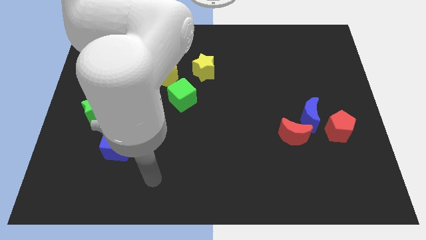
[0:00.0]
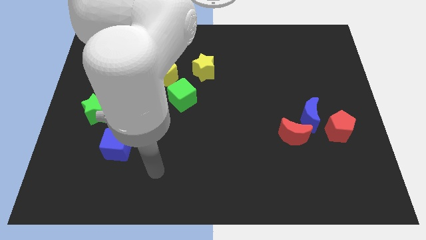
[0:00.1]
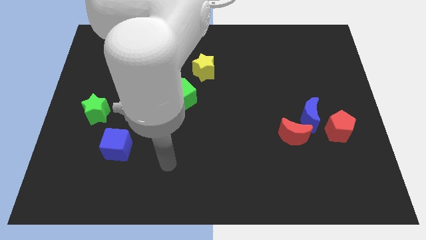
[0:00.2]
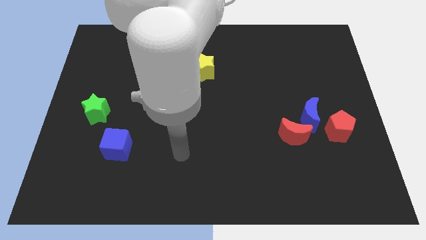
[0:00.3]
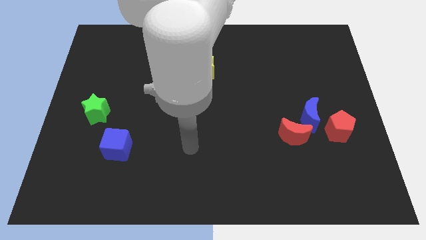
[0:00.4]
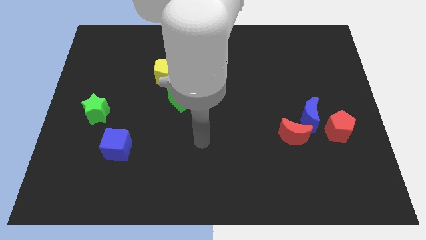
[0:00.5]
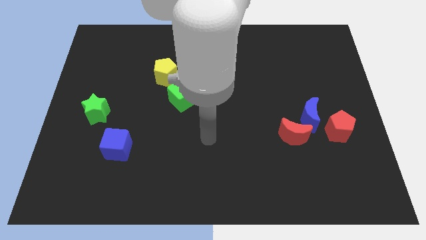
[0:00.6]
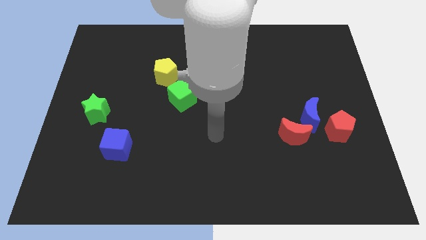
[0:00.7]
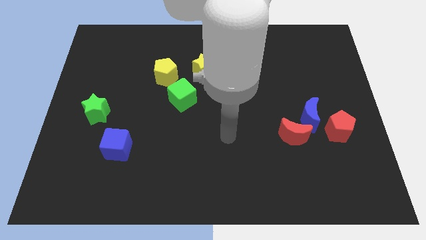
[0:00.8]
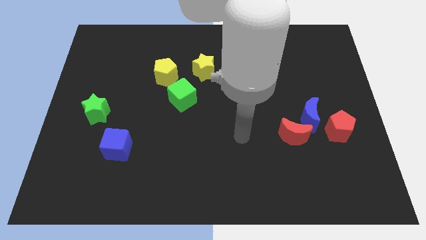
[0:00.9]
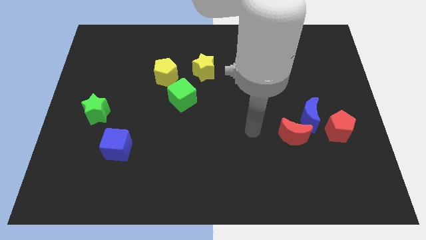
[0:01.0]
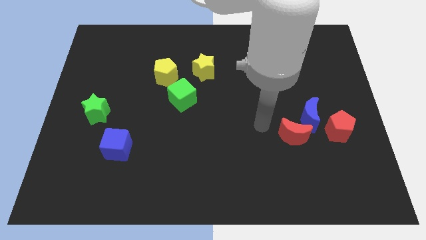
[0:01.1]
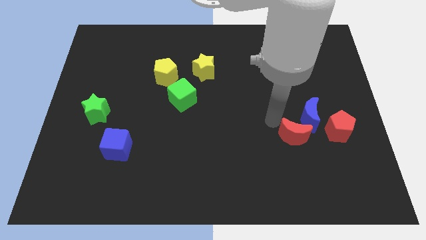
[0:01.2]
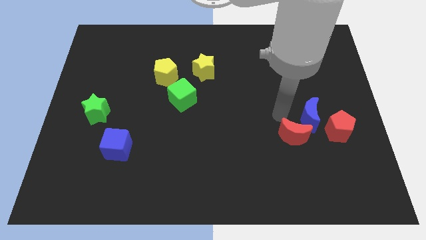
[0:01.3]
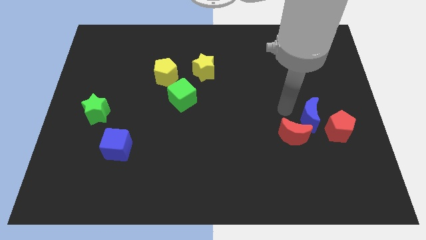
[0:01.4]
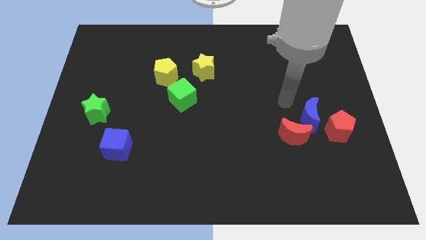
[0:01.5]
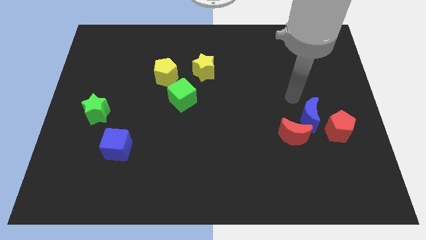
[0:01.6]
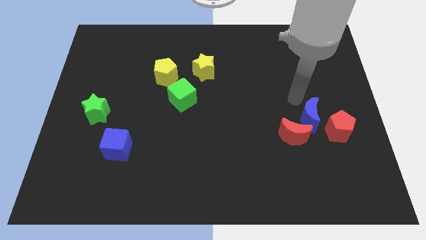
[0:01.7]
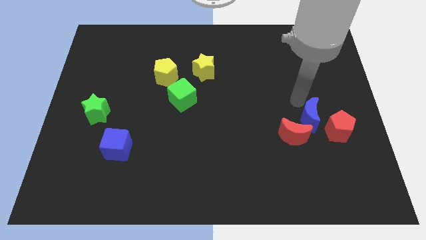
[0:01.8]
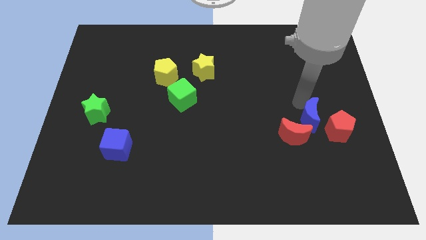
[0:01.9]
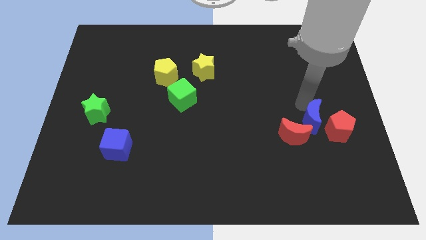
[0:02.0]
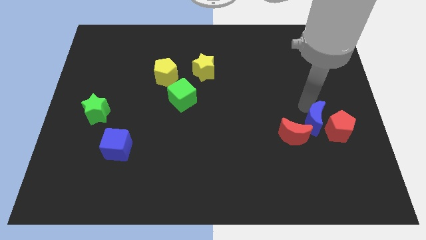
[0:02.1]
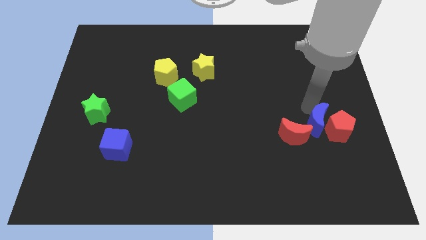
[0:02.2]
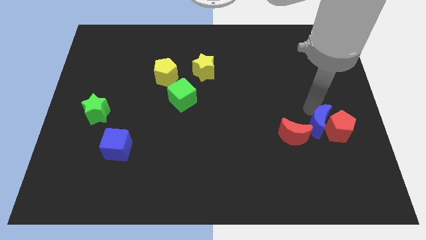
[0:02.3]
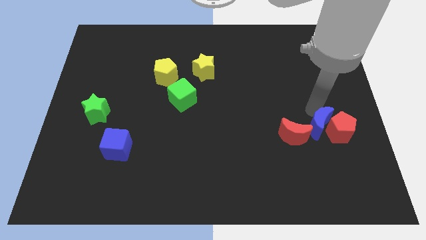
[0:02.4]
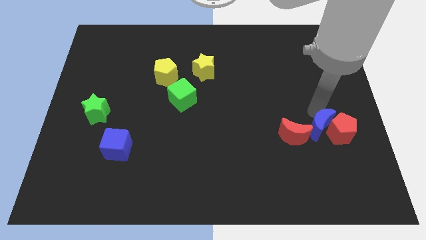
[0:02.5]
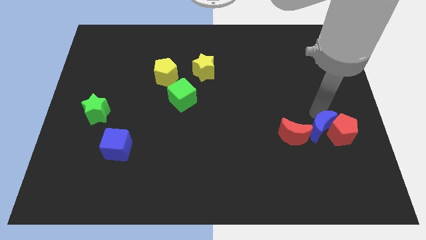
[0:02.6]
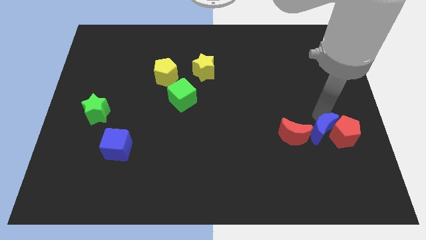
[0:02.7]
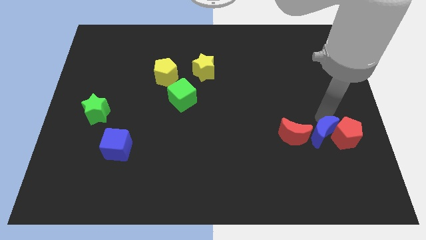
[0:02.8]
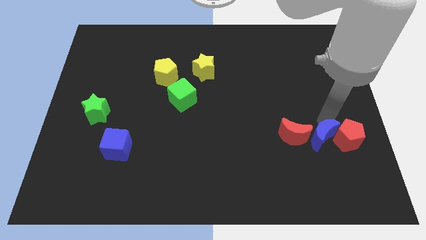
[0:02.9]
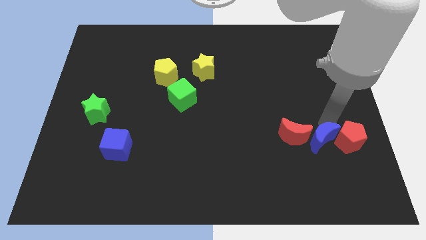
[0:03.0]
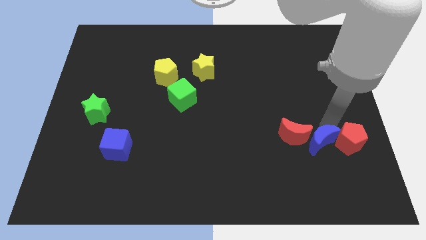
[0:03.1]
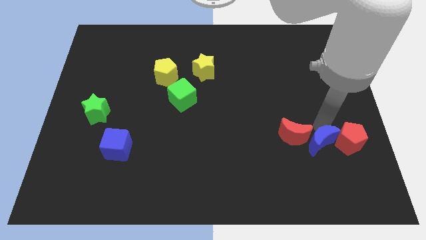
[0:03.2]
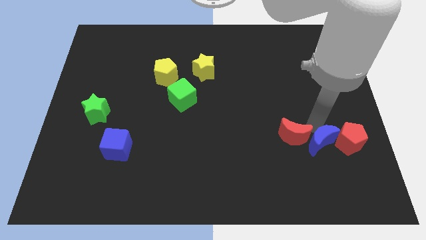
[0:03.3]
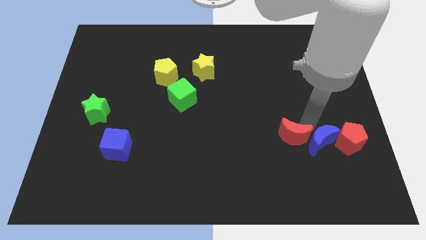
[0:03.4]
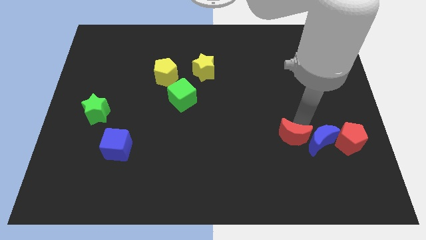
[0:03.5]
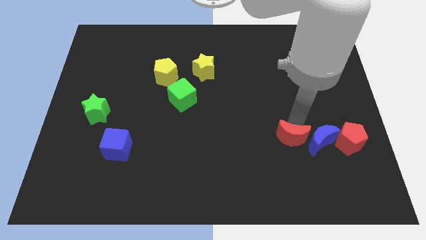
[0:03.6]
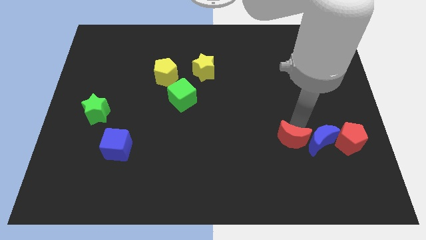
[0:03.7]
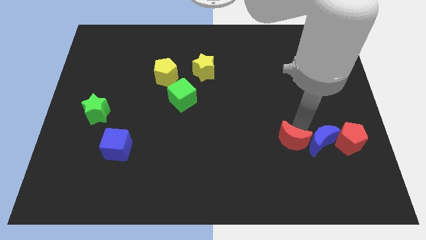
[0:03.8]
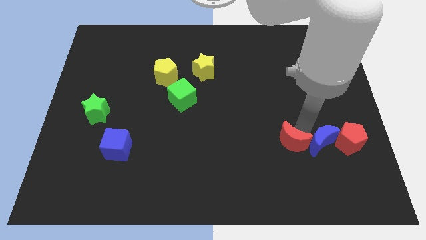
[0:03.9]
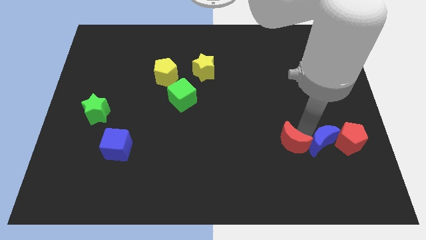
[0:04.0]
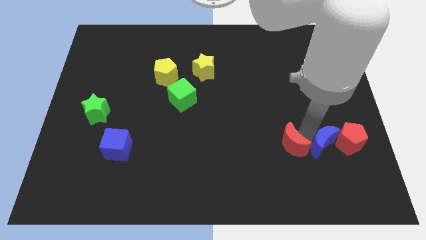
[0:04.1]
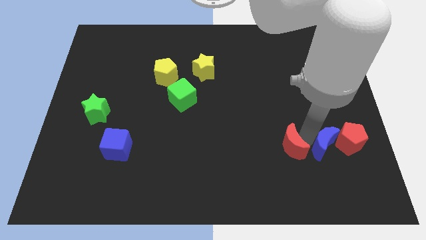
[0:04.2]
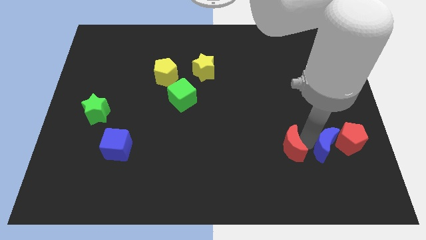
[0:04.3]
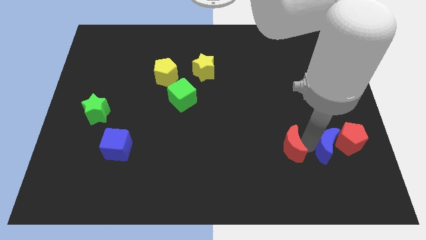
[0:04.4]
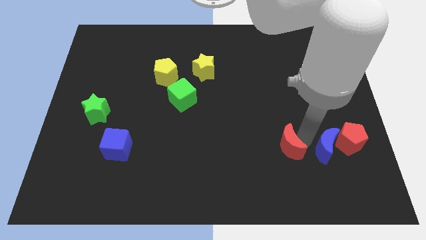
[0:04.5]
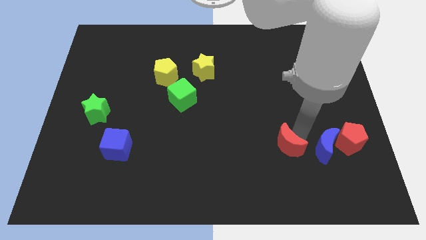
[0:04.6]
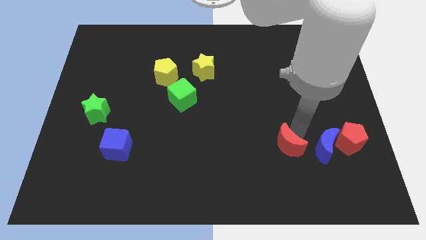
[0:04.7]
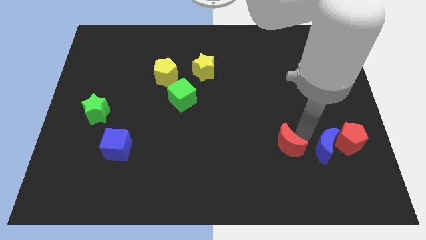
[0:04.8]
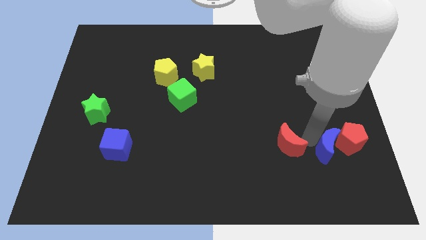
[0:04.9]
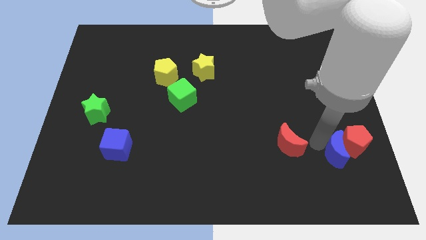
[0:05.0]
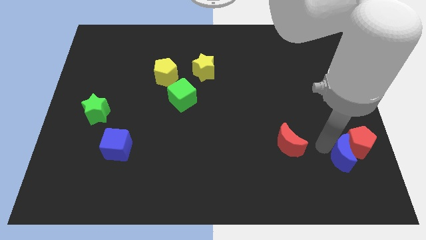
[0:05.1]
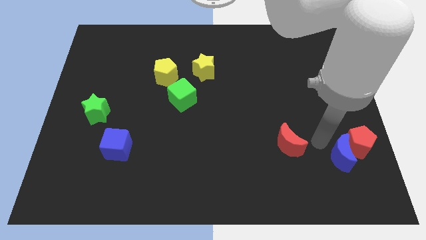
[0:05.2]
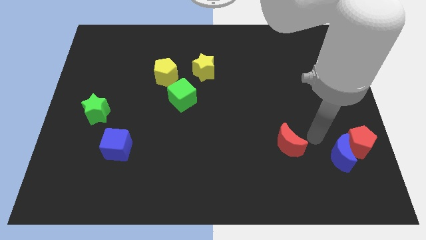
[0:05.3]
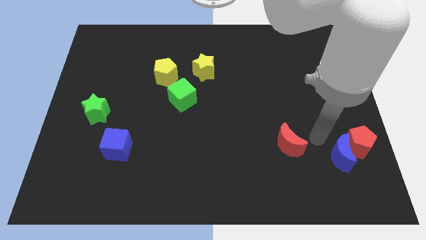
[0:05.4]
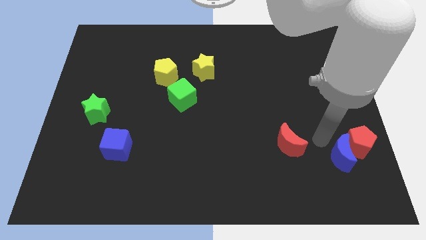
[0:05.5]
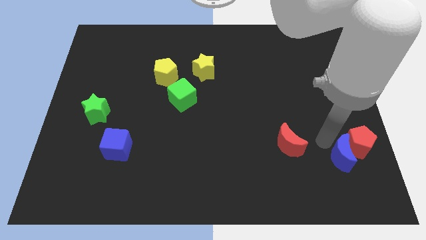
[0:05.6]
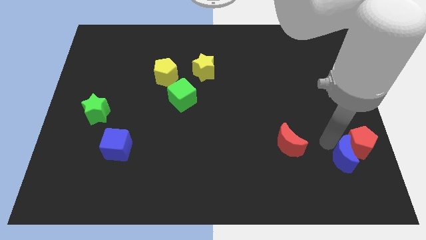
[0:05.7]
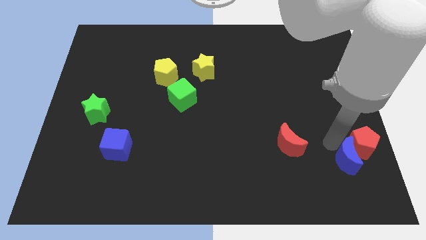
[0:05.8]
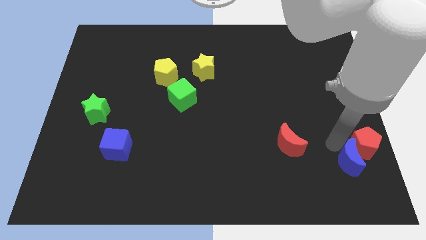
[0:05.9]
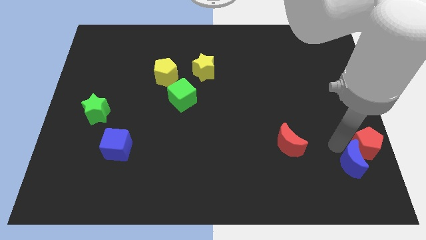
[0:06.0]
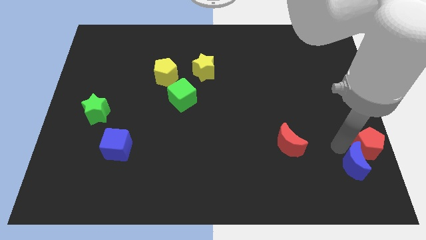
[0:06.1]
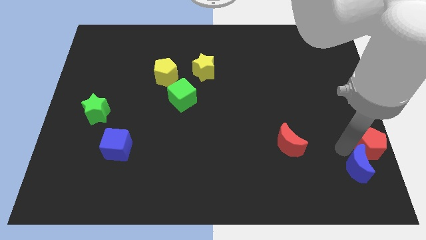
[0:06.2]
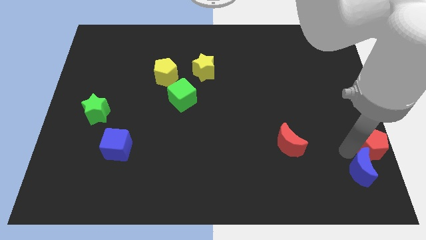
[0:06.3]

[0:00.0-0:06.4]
slide the blue moon to the bottom right of the board
